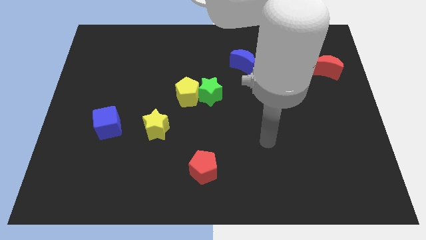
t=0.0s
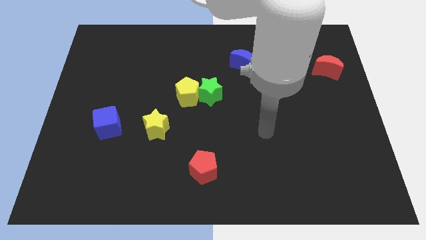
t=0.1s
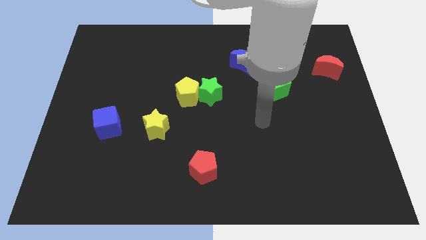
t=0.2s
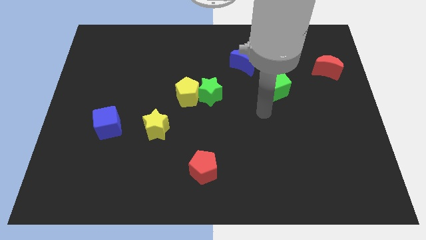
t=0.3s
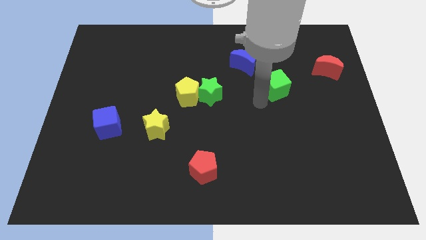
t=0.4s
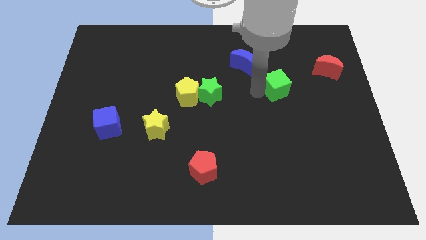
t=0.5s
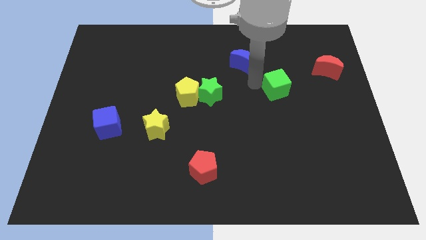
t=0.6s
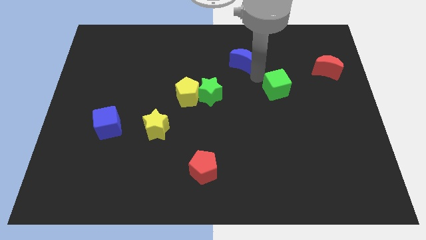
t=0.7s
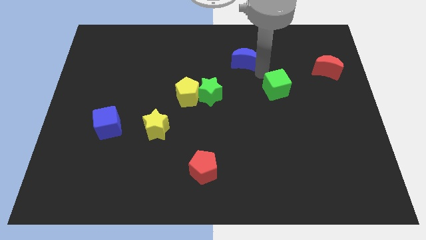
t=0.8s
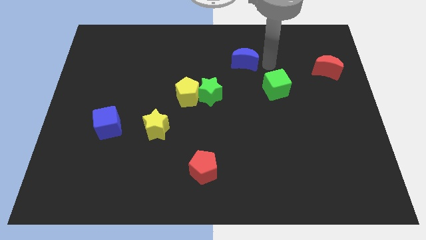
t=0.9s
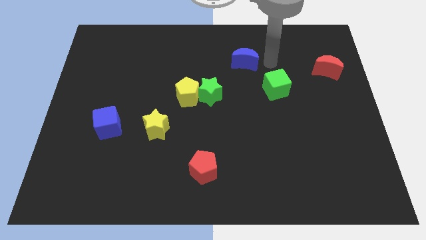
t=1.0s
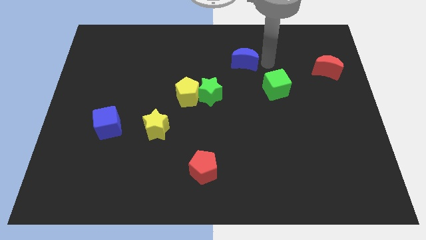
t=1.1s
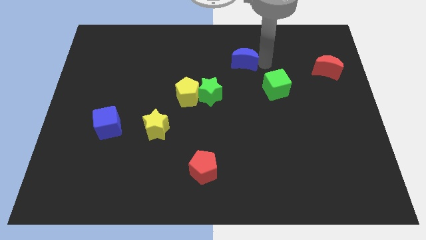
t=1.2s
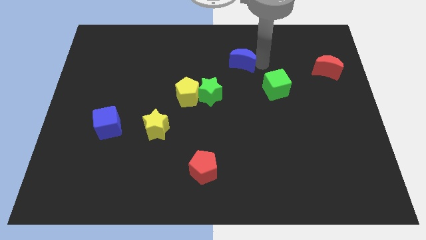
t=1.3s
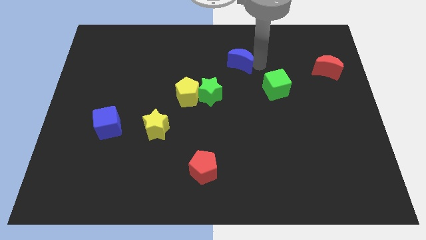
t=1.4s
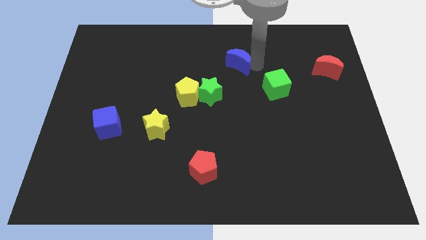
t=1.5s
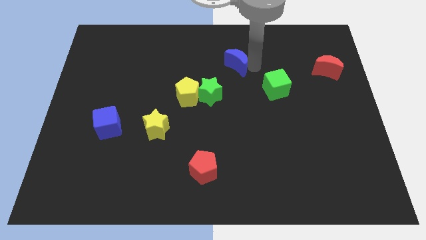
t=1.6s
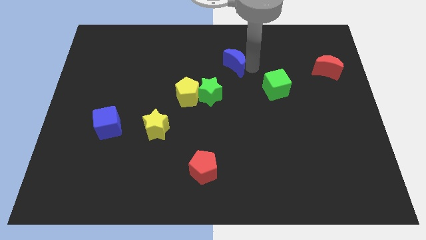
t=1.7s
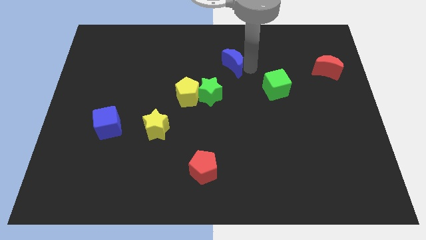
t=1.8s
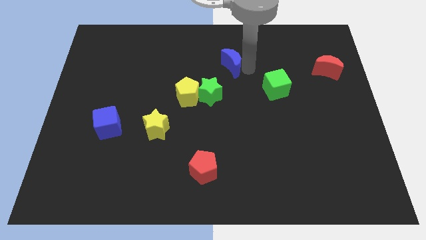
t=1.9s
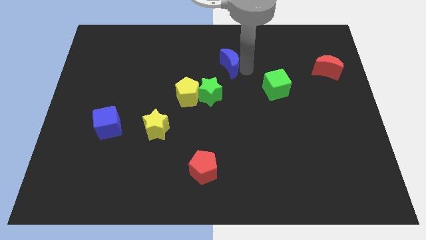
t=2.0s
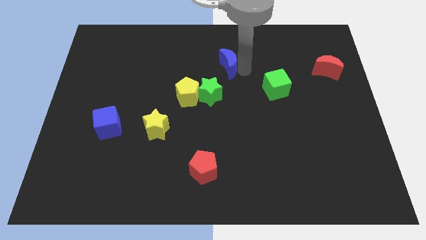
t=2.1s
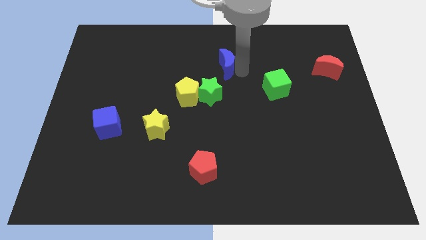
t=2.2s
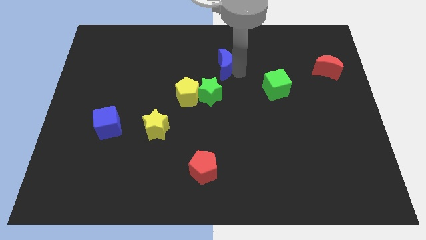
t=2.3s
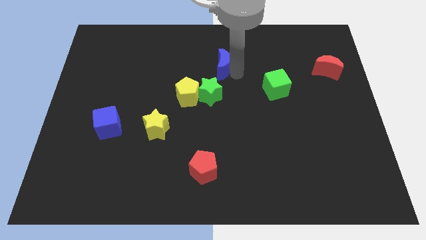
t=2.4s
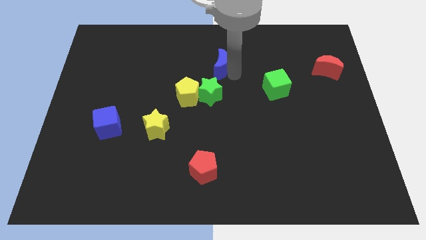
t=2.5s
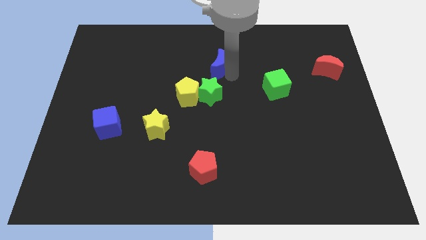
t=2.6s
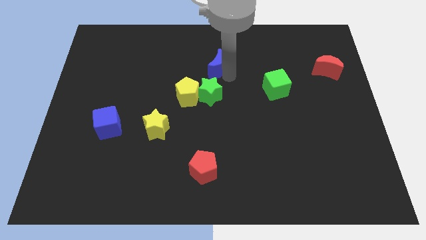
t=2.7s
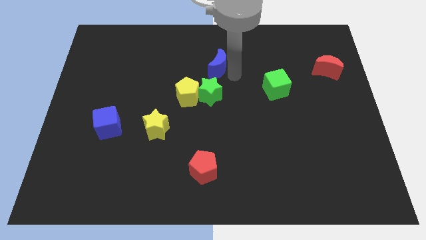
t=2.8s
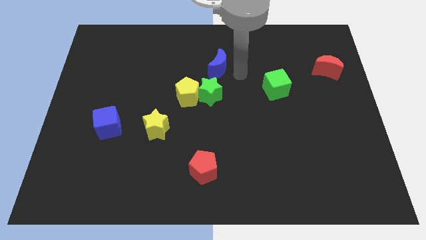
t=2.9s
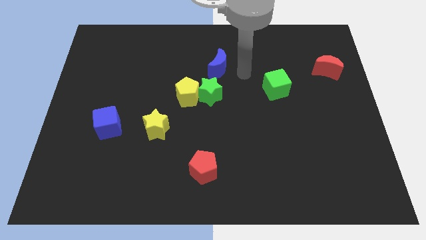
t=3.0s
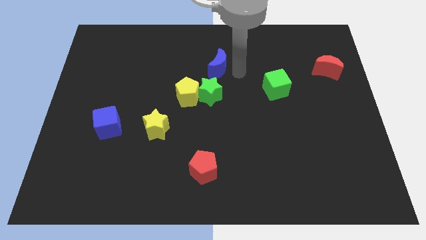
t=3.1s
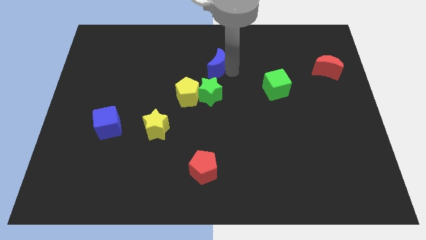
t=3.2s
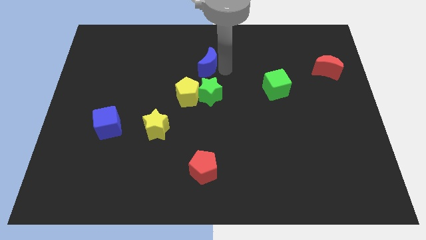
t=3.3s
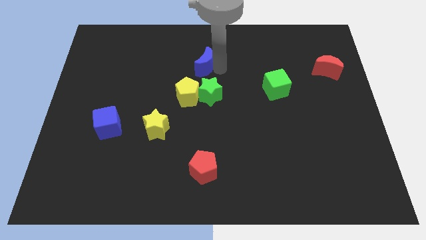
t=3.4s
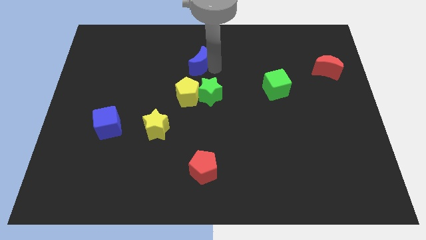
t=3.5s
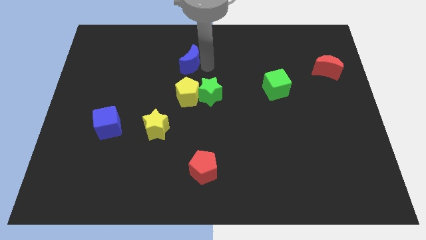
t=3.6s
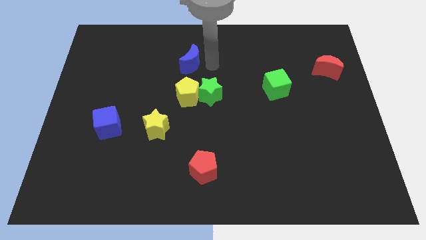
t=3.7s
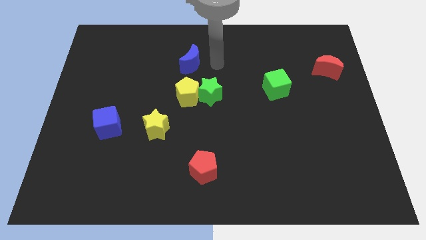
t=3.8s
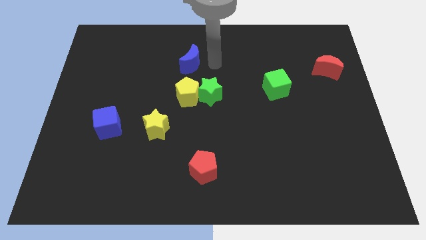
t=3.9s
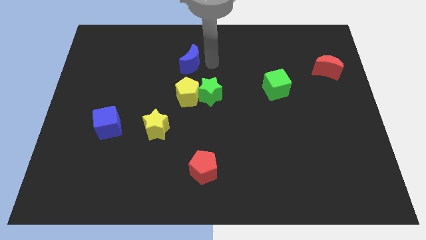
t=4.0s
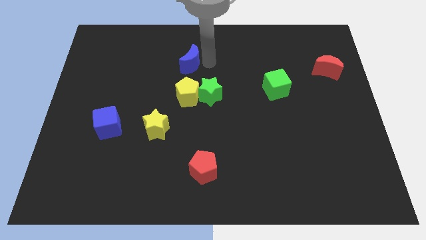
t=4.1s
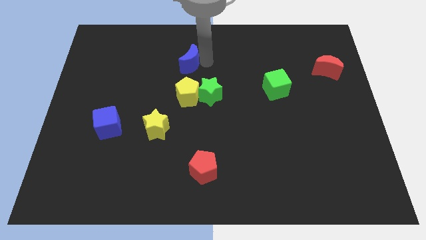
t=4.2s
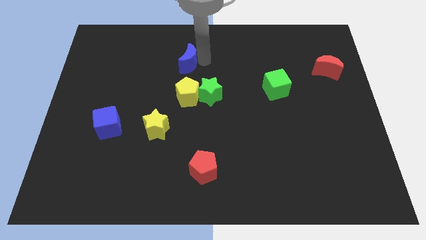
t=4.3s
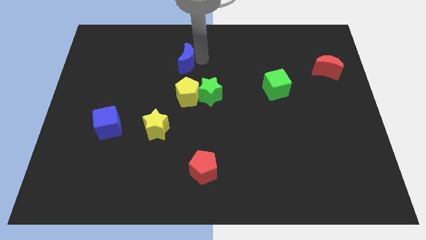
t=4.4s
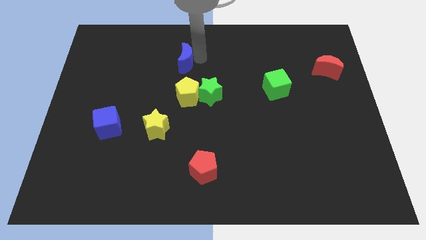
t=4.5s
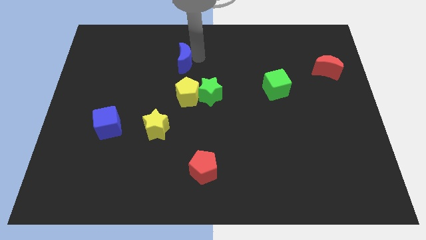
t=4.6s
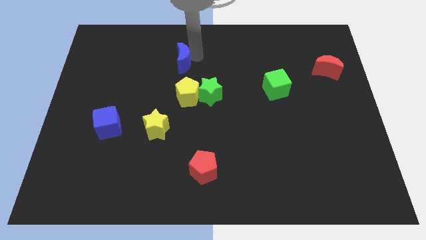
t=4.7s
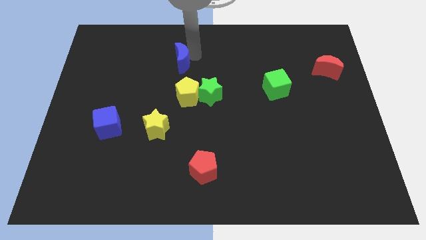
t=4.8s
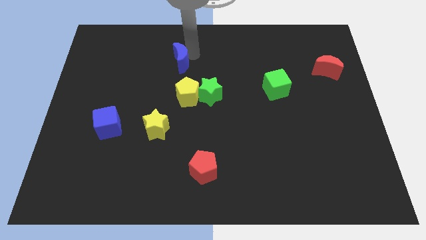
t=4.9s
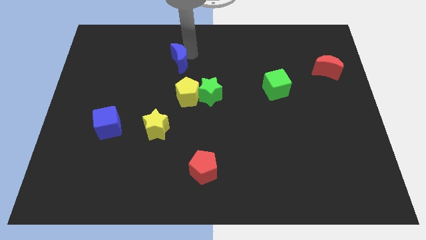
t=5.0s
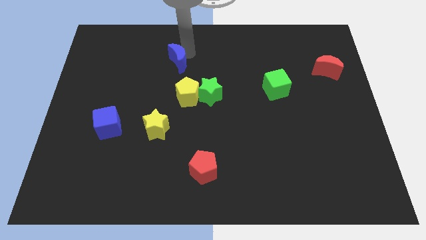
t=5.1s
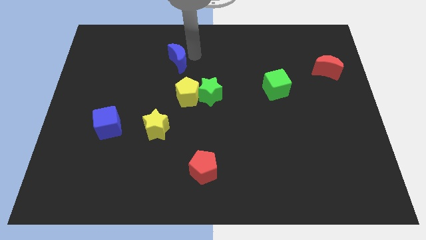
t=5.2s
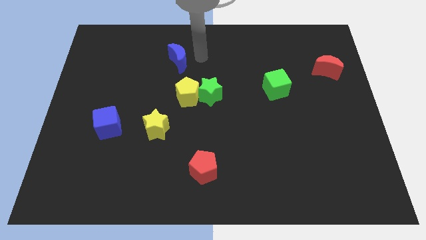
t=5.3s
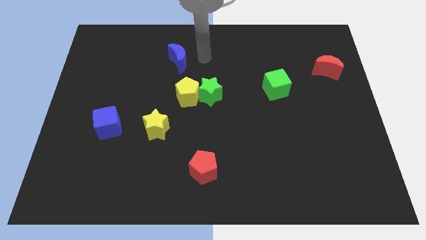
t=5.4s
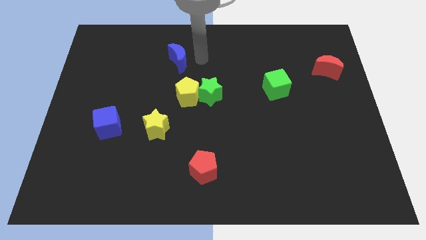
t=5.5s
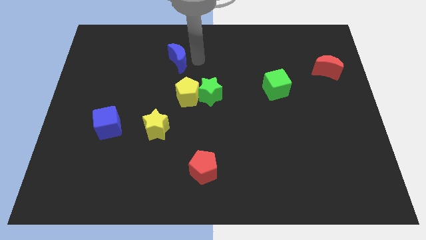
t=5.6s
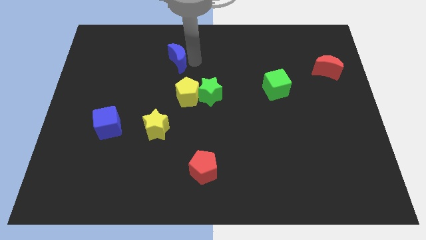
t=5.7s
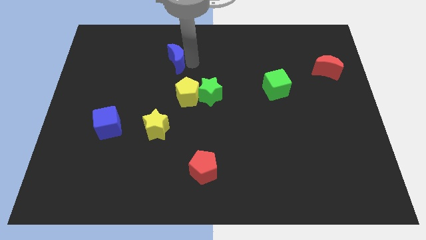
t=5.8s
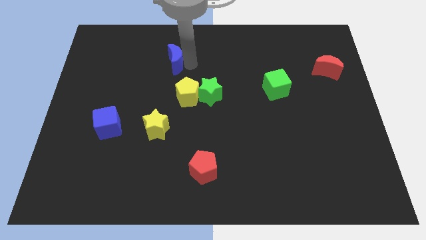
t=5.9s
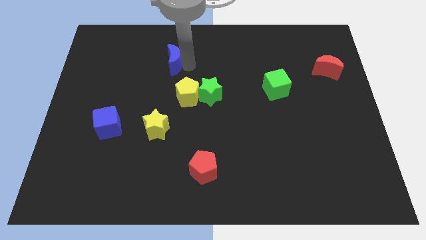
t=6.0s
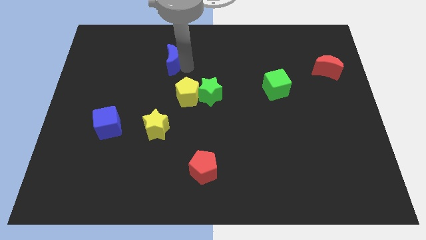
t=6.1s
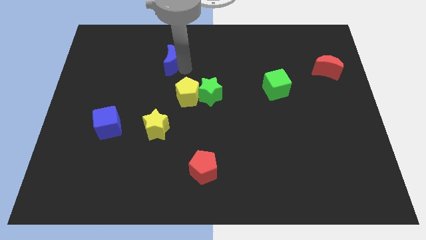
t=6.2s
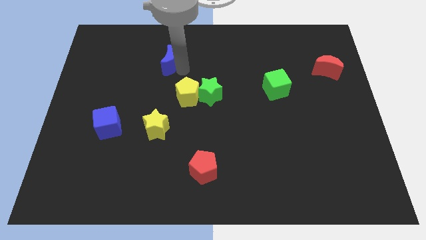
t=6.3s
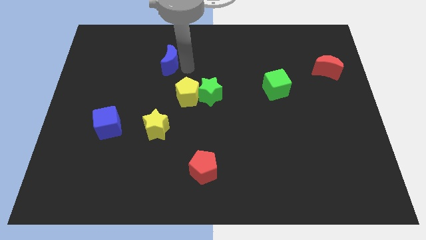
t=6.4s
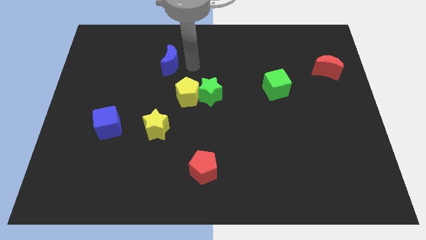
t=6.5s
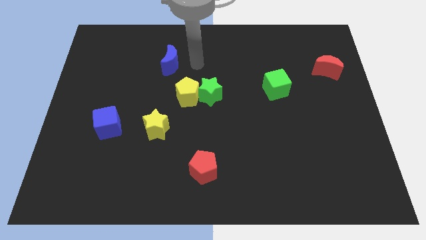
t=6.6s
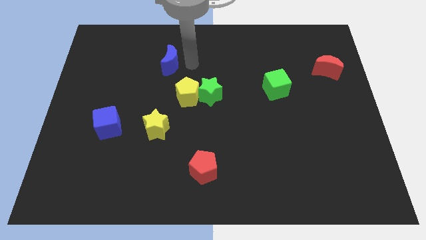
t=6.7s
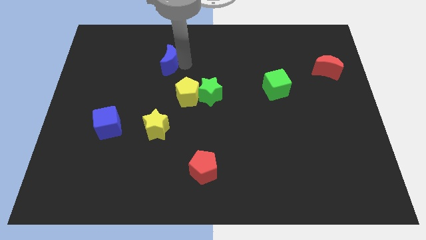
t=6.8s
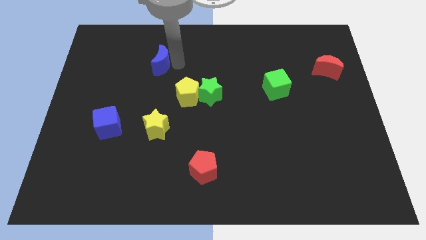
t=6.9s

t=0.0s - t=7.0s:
move the blue moon to the left

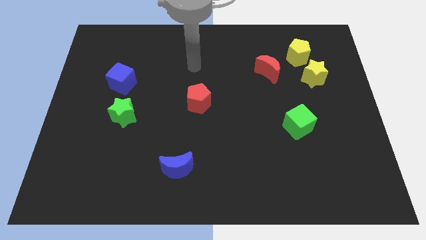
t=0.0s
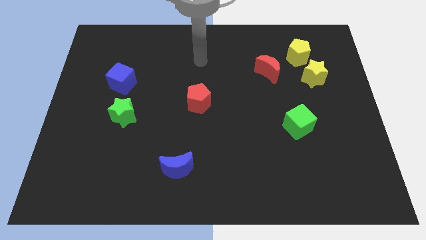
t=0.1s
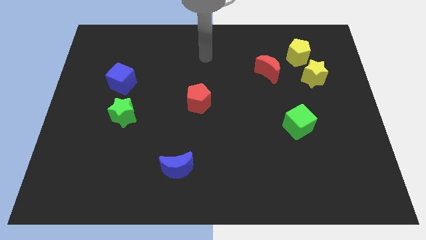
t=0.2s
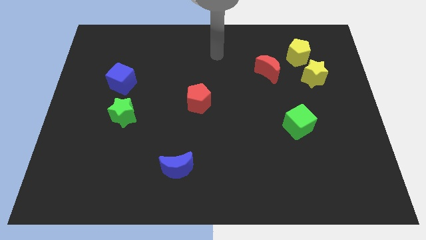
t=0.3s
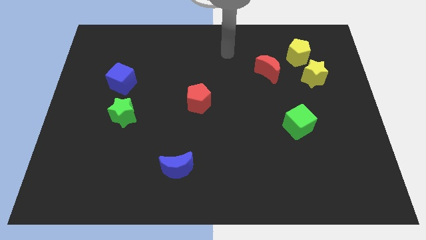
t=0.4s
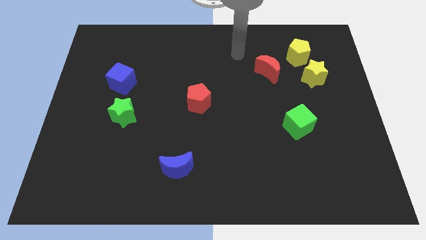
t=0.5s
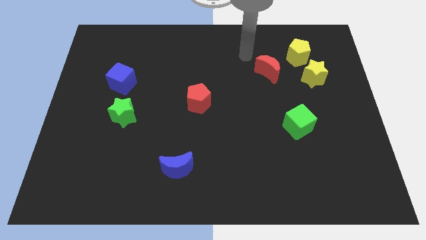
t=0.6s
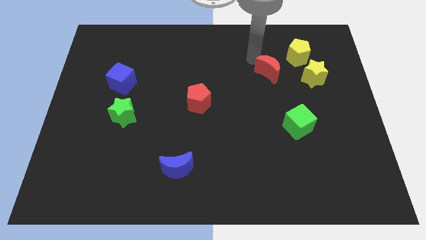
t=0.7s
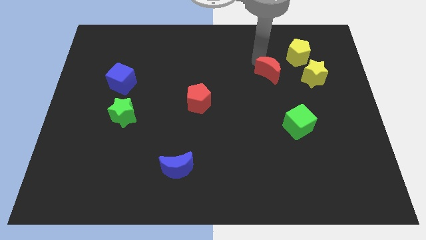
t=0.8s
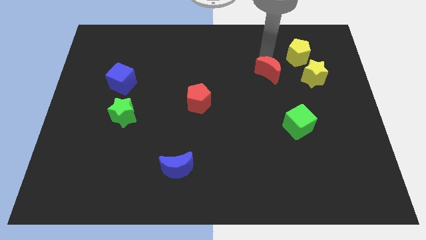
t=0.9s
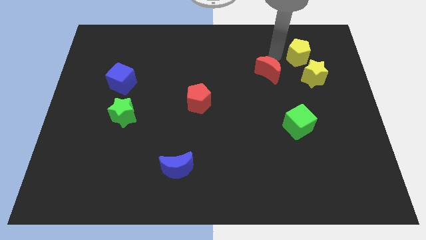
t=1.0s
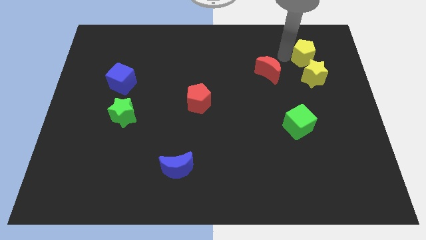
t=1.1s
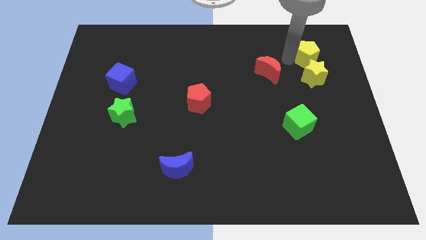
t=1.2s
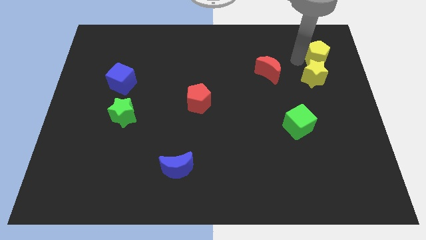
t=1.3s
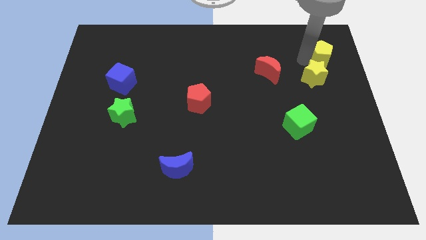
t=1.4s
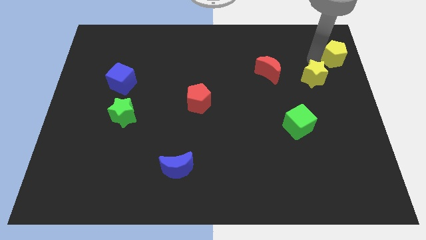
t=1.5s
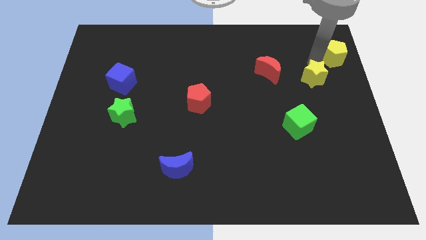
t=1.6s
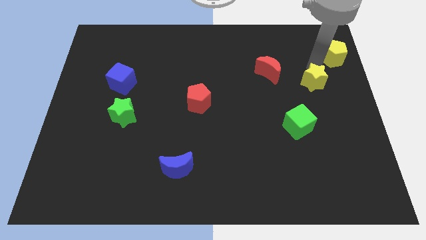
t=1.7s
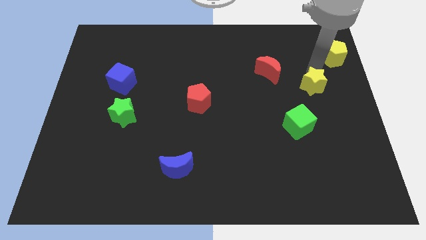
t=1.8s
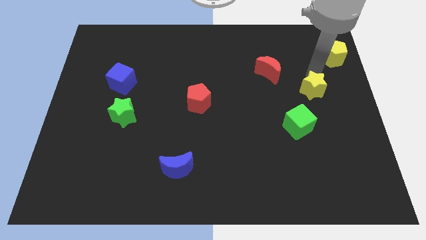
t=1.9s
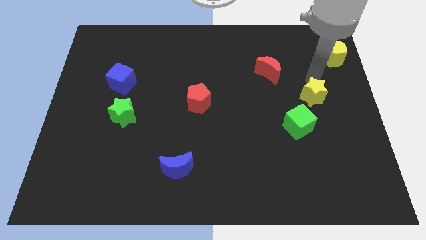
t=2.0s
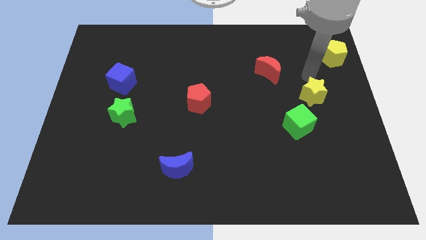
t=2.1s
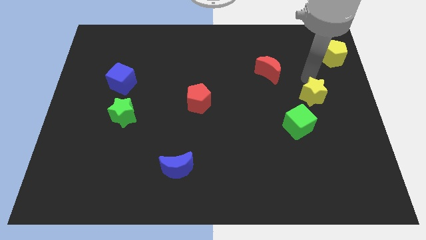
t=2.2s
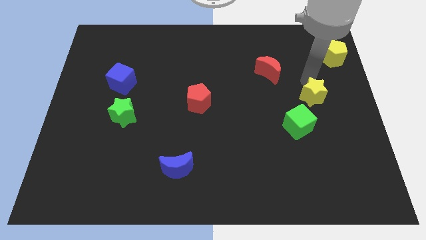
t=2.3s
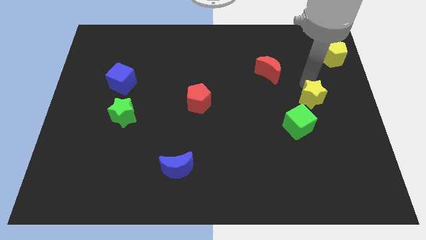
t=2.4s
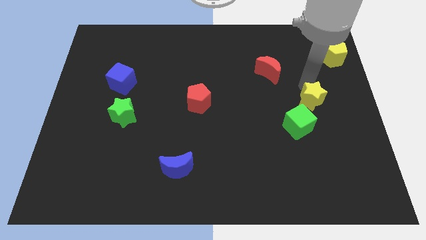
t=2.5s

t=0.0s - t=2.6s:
push the yellow star down slightly
